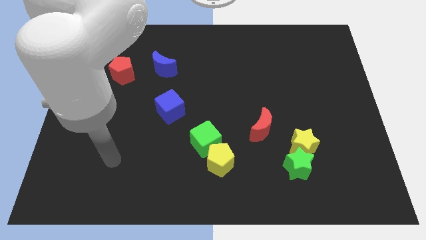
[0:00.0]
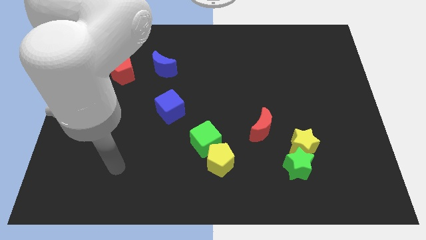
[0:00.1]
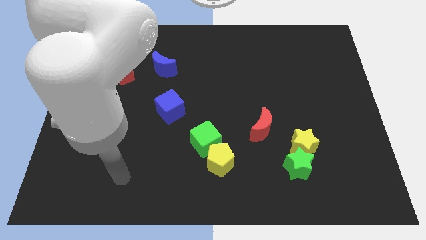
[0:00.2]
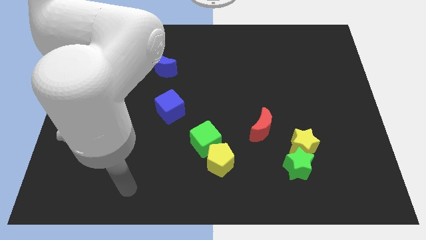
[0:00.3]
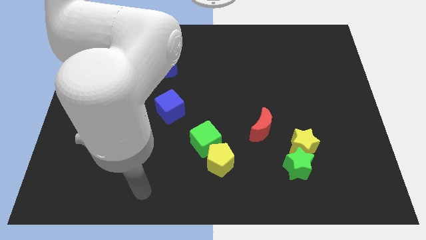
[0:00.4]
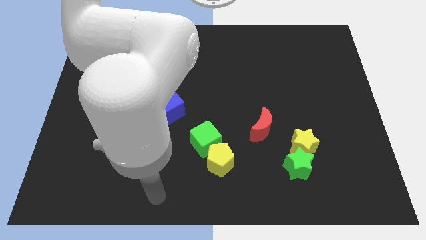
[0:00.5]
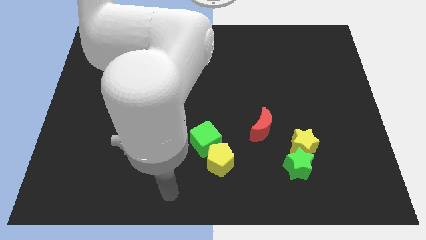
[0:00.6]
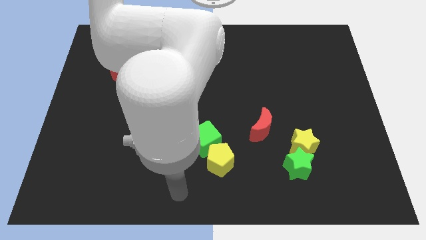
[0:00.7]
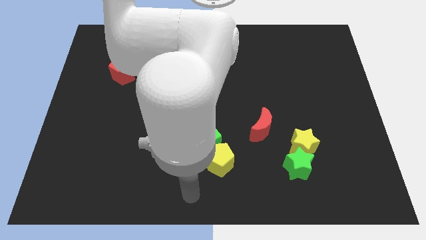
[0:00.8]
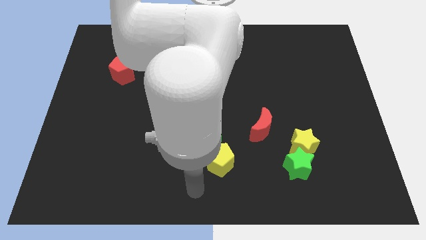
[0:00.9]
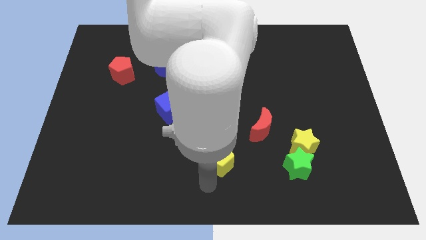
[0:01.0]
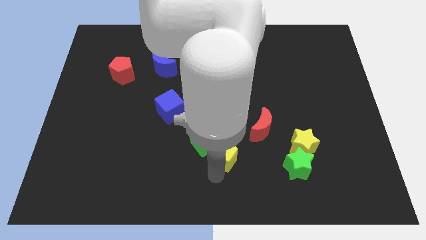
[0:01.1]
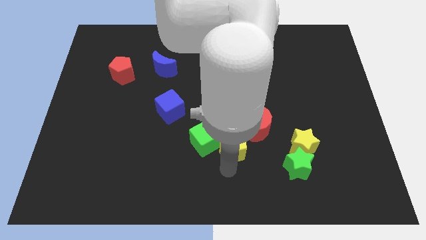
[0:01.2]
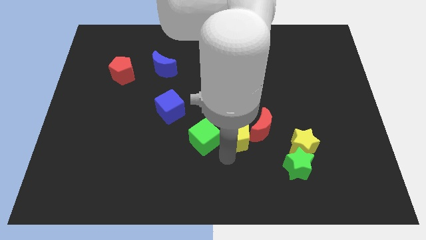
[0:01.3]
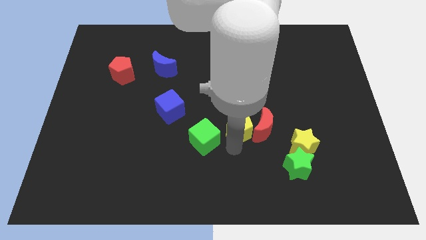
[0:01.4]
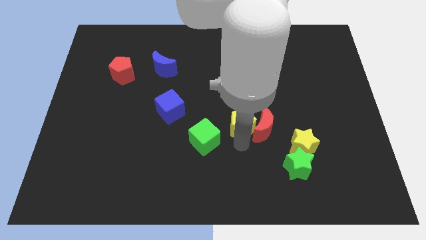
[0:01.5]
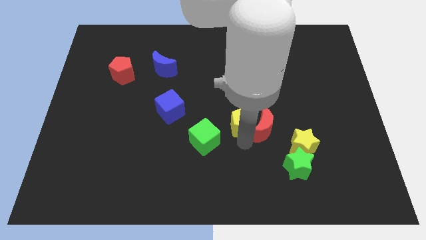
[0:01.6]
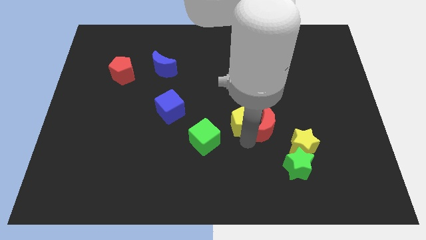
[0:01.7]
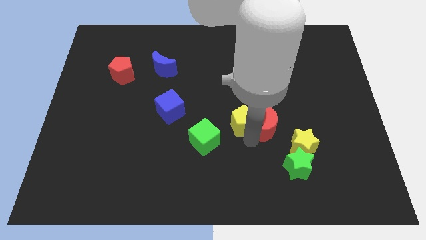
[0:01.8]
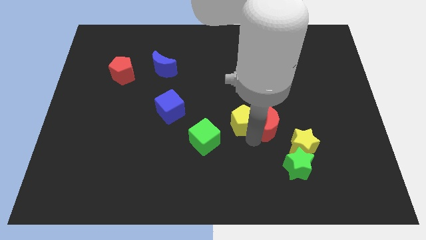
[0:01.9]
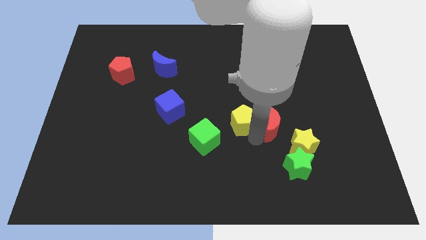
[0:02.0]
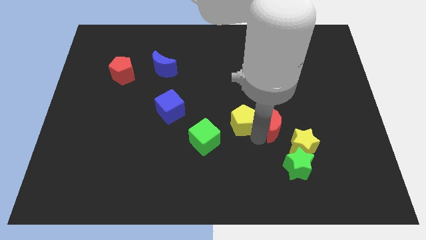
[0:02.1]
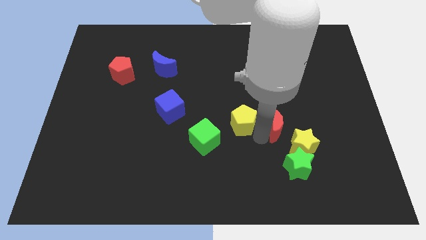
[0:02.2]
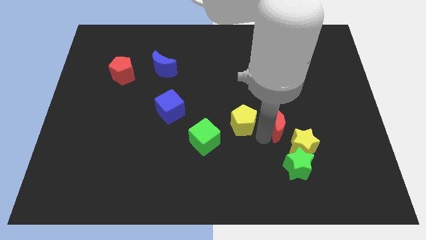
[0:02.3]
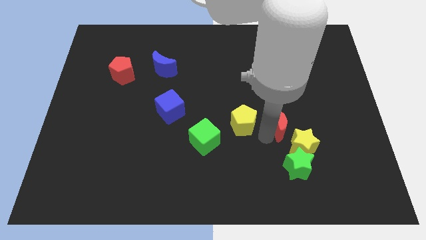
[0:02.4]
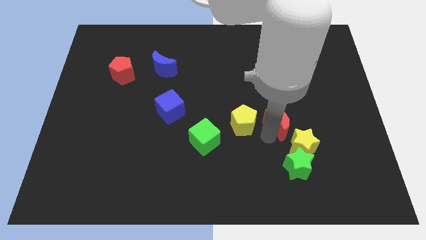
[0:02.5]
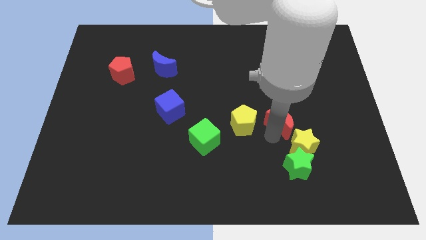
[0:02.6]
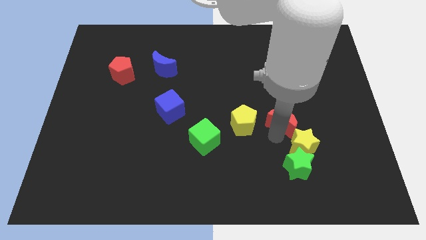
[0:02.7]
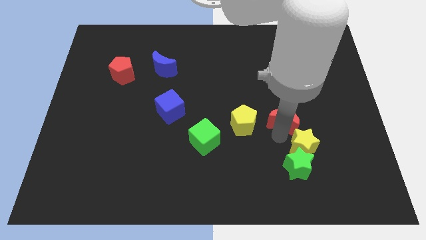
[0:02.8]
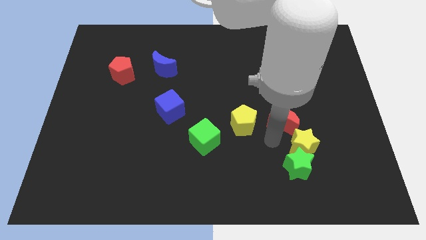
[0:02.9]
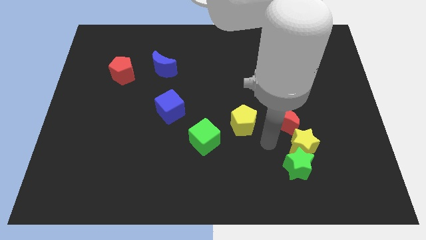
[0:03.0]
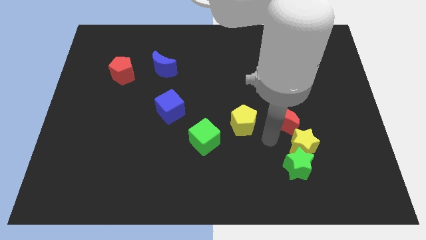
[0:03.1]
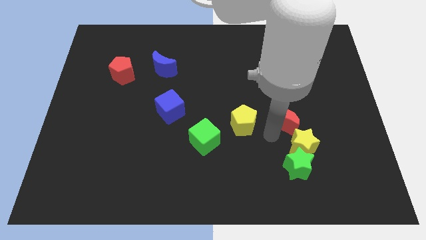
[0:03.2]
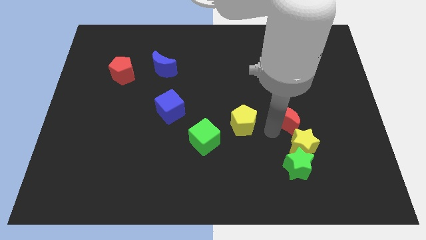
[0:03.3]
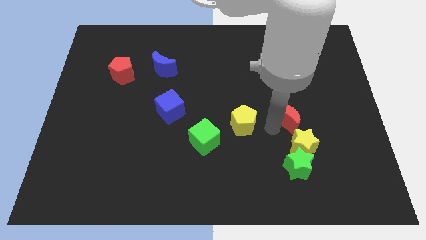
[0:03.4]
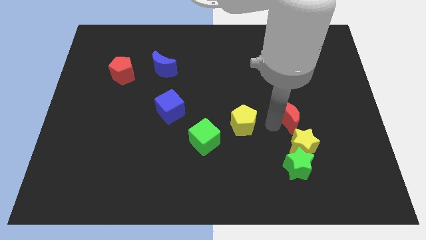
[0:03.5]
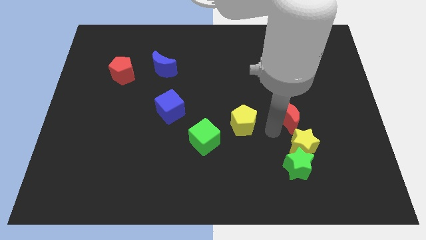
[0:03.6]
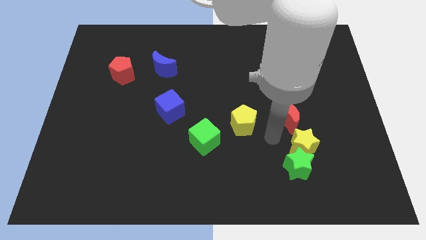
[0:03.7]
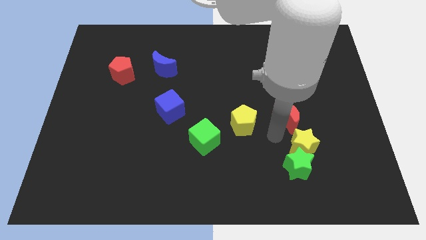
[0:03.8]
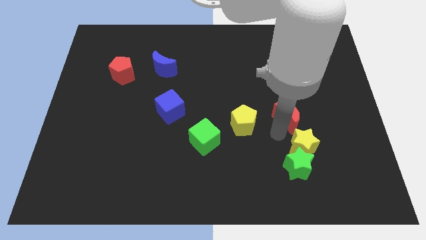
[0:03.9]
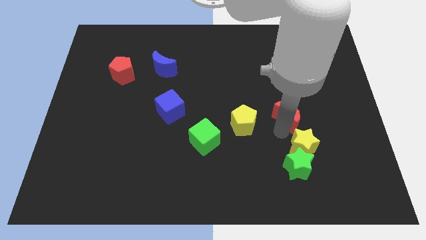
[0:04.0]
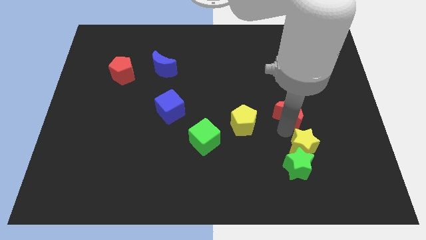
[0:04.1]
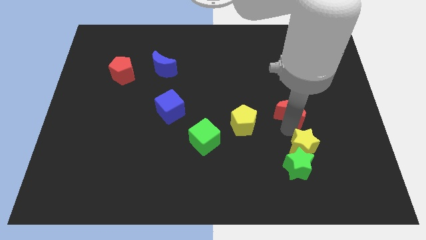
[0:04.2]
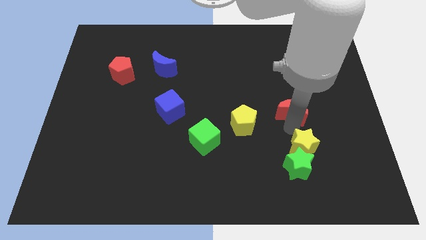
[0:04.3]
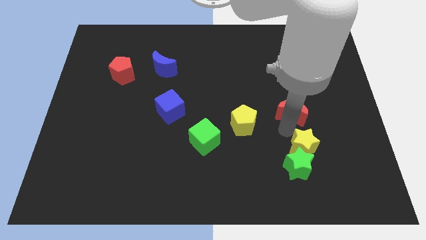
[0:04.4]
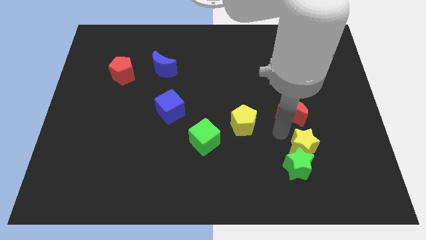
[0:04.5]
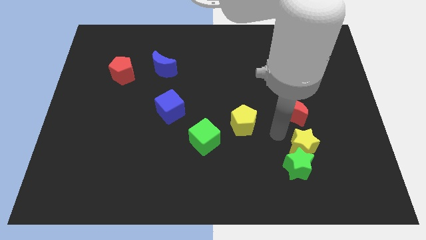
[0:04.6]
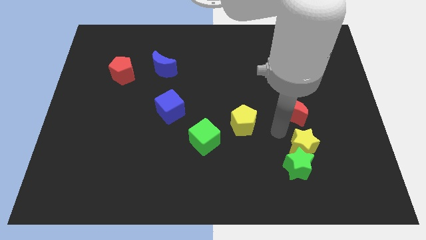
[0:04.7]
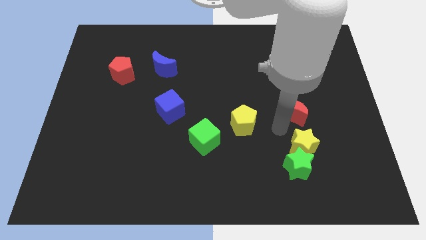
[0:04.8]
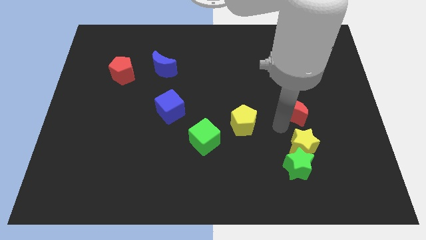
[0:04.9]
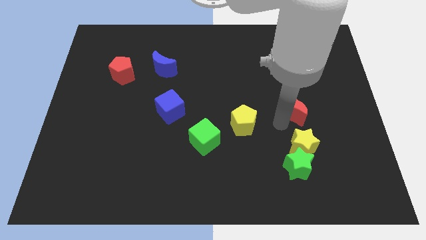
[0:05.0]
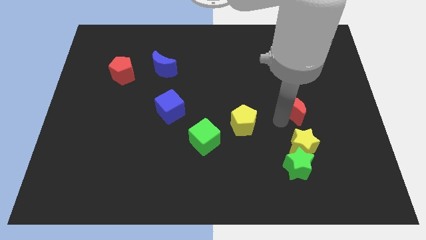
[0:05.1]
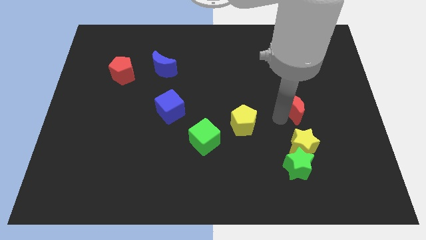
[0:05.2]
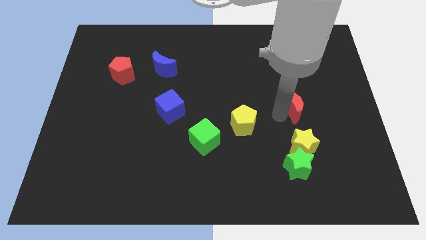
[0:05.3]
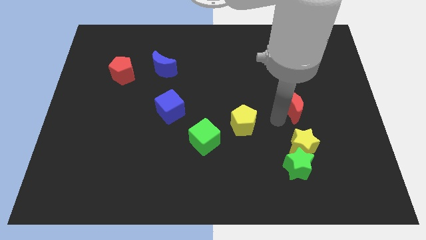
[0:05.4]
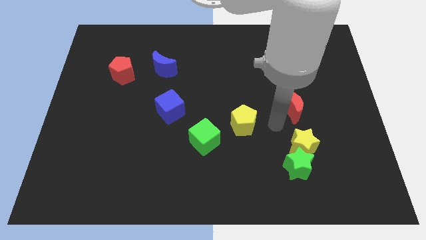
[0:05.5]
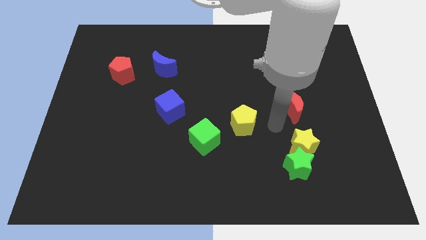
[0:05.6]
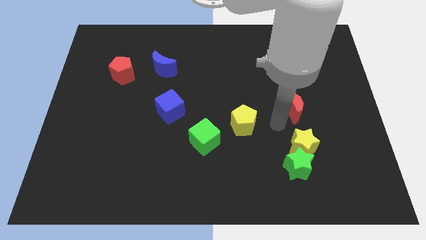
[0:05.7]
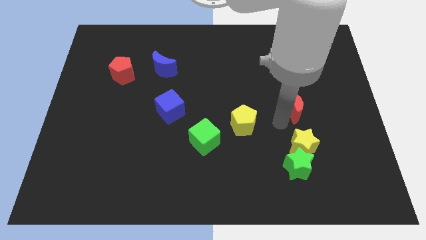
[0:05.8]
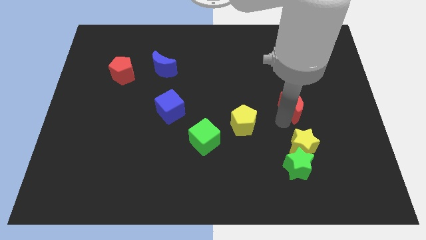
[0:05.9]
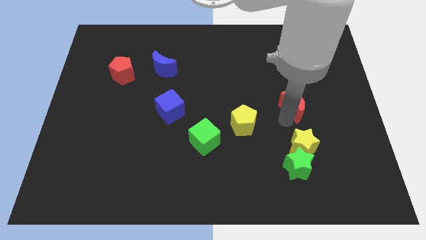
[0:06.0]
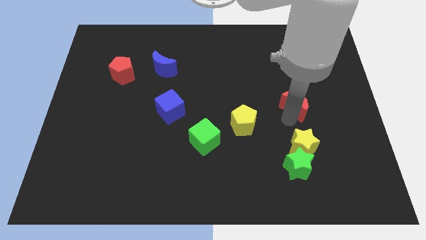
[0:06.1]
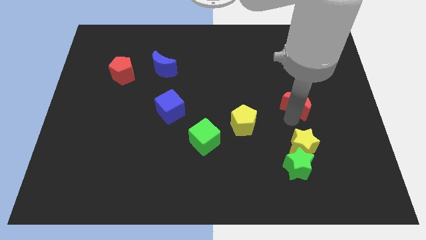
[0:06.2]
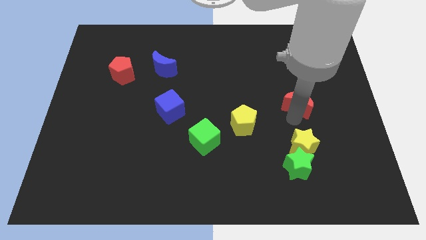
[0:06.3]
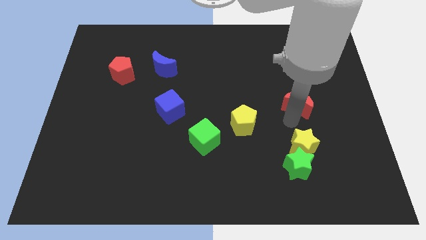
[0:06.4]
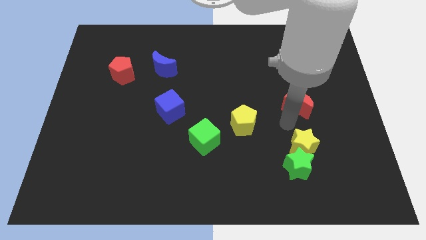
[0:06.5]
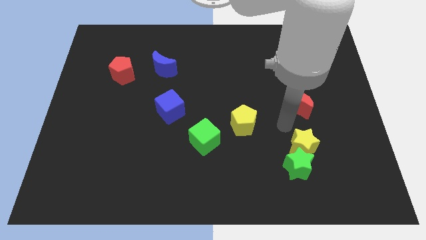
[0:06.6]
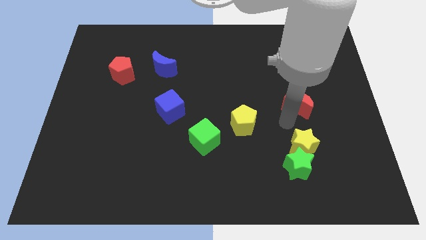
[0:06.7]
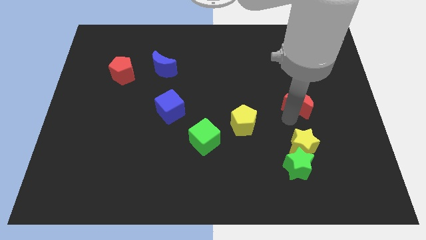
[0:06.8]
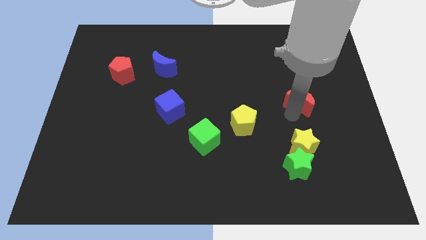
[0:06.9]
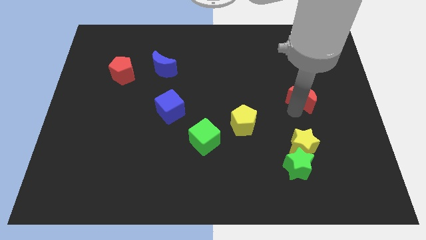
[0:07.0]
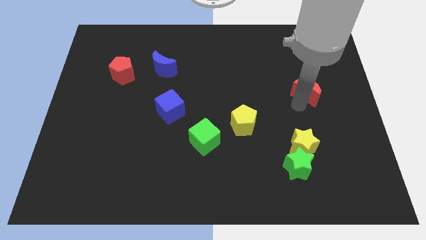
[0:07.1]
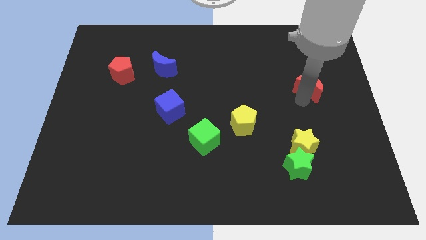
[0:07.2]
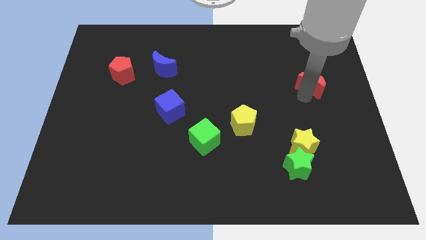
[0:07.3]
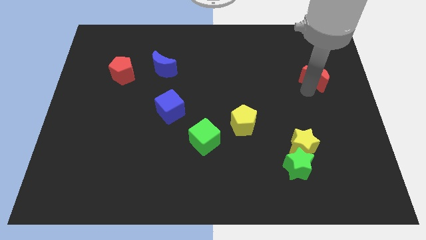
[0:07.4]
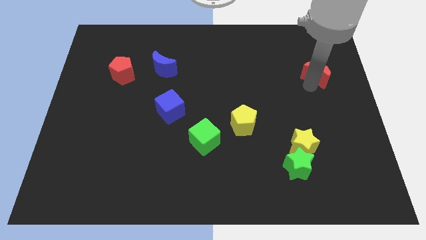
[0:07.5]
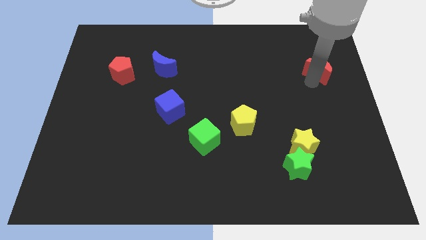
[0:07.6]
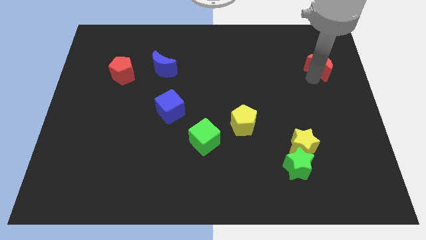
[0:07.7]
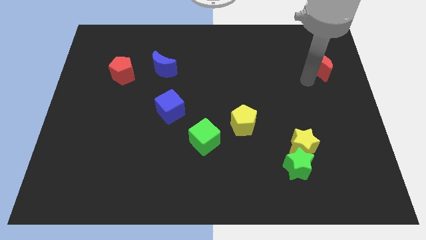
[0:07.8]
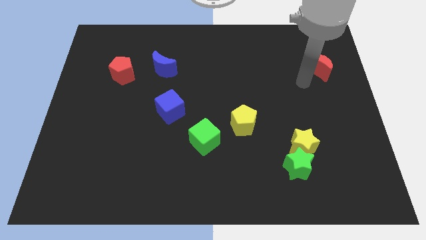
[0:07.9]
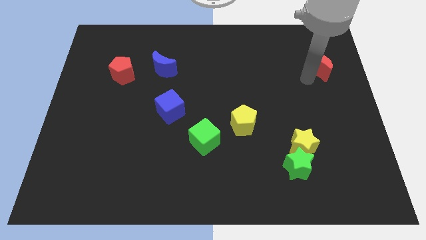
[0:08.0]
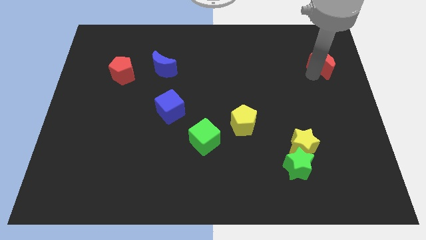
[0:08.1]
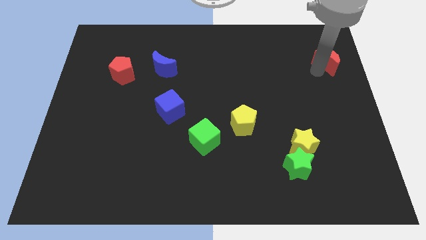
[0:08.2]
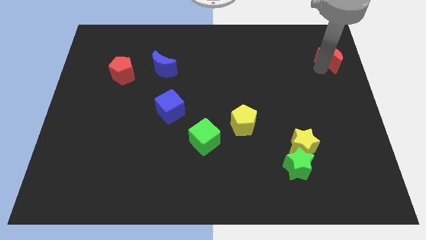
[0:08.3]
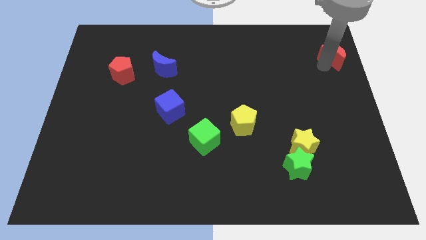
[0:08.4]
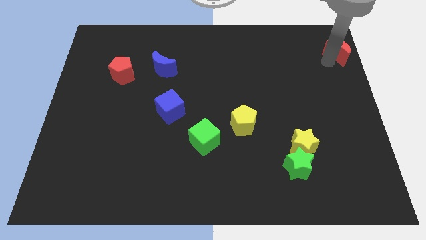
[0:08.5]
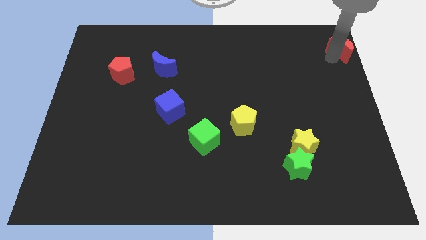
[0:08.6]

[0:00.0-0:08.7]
move the red moon to the top right of the board
